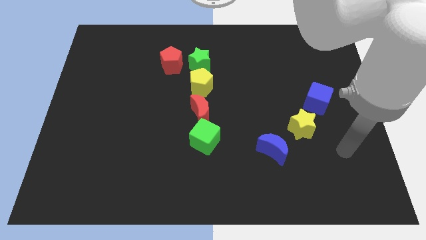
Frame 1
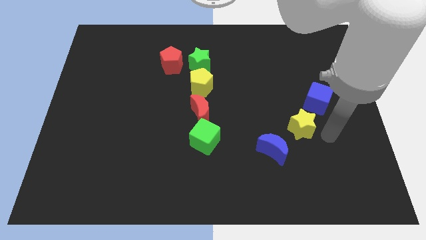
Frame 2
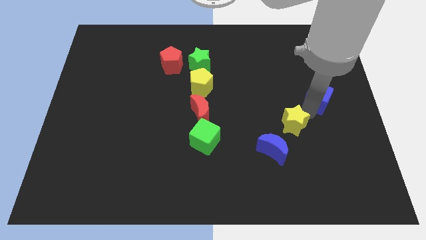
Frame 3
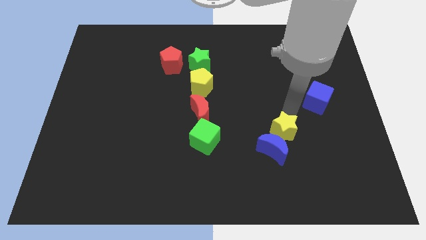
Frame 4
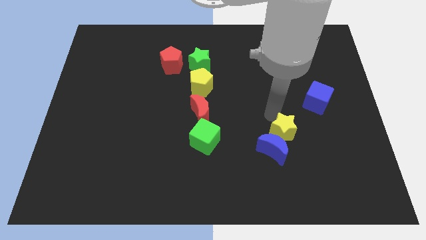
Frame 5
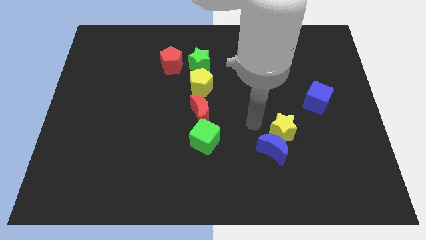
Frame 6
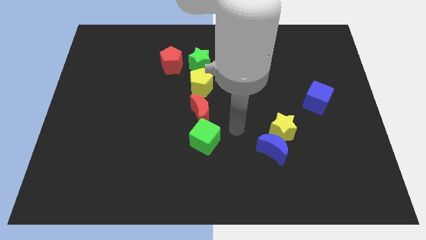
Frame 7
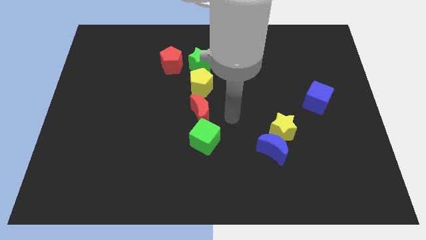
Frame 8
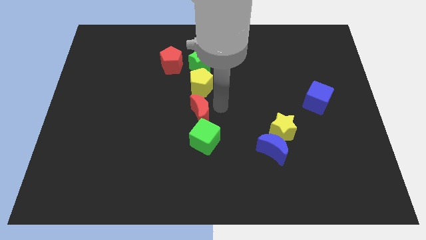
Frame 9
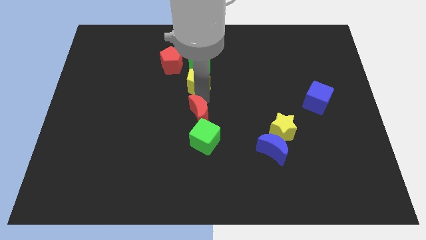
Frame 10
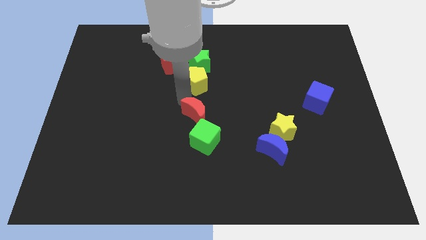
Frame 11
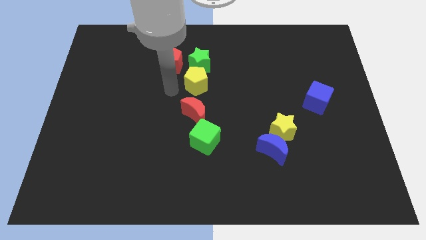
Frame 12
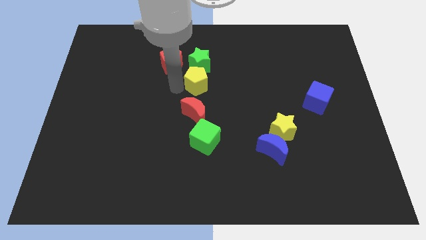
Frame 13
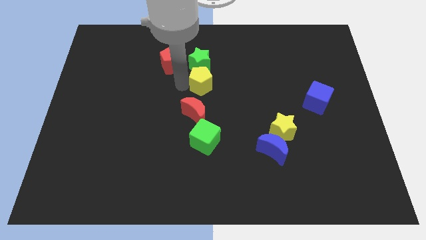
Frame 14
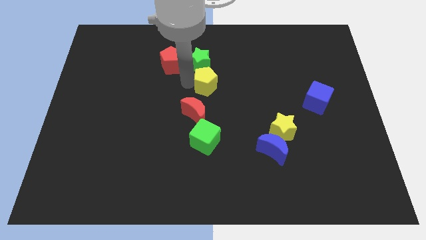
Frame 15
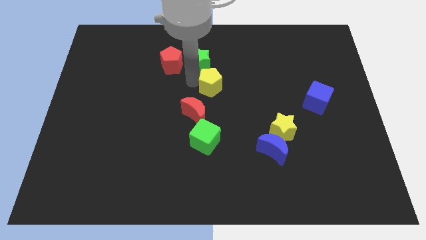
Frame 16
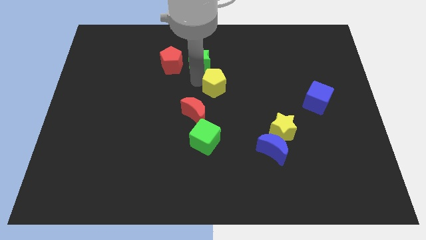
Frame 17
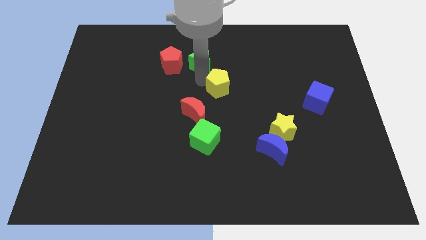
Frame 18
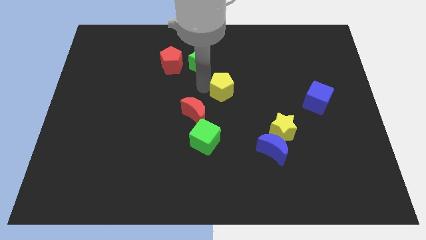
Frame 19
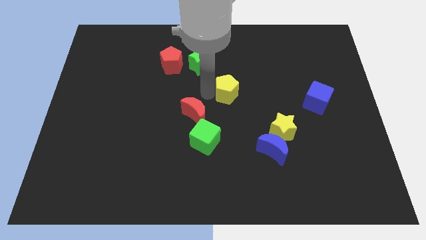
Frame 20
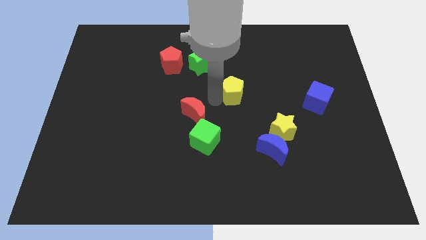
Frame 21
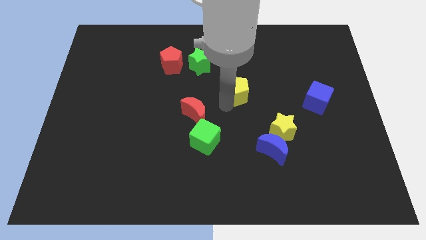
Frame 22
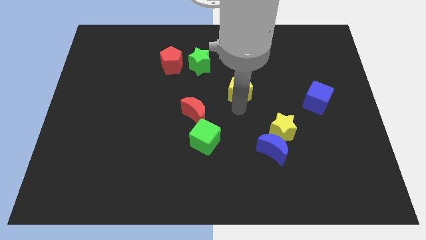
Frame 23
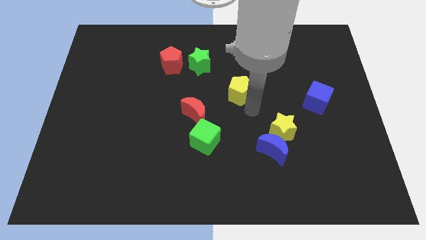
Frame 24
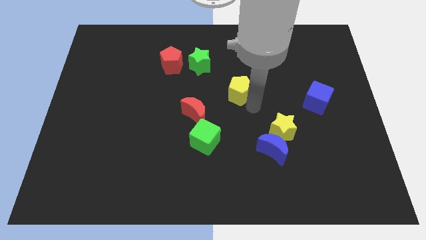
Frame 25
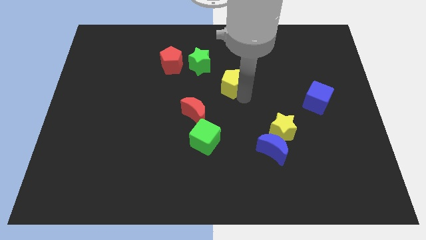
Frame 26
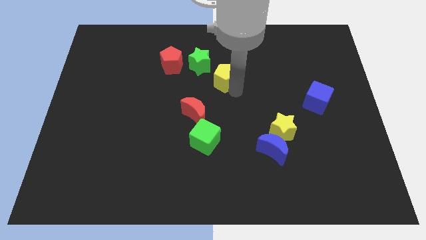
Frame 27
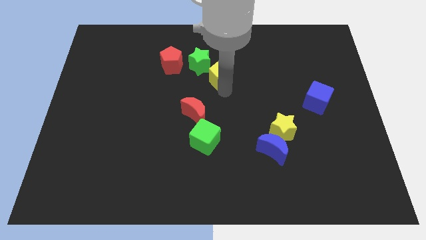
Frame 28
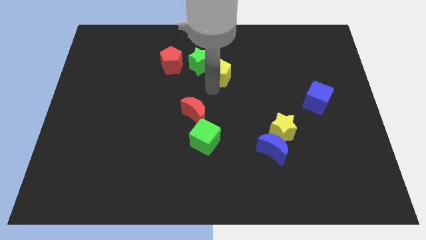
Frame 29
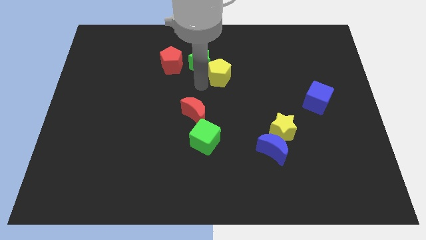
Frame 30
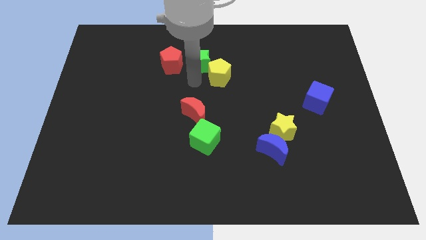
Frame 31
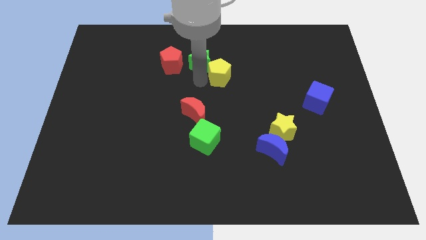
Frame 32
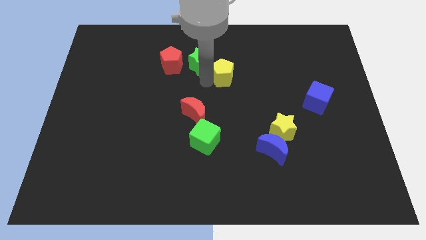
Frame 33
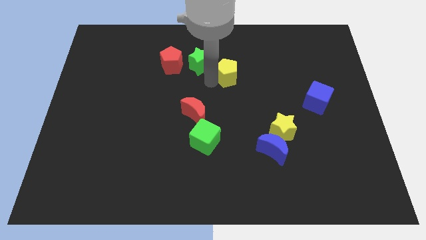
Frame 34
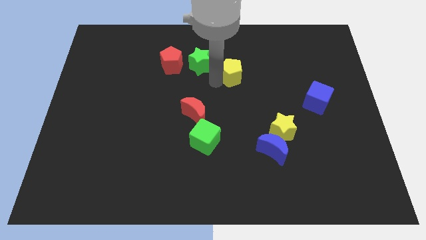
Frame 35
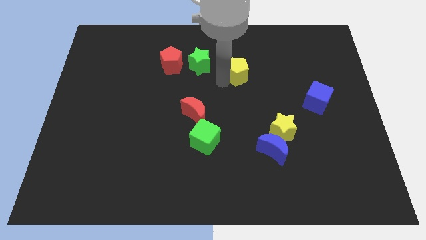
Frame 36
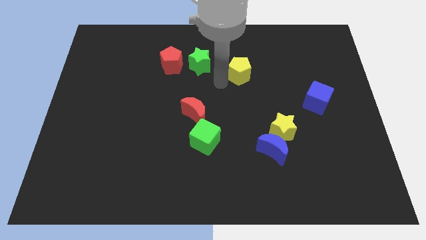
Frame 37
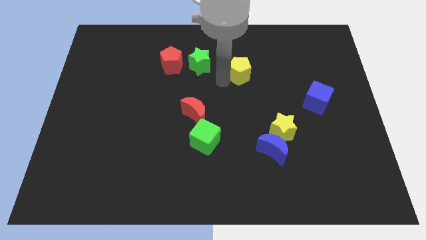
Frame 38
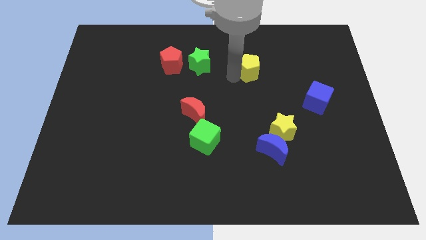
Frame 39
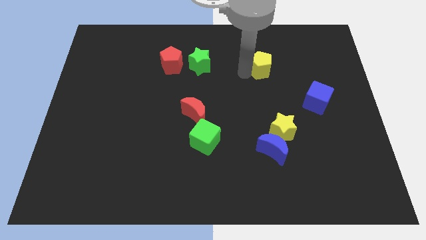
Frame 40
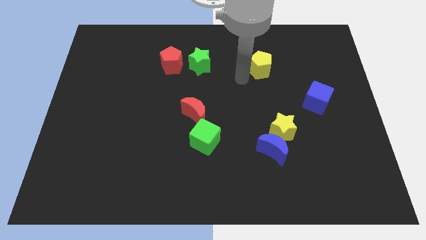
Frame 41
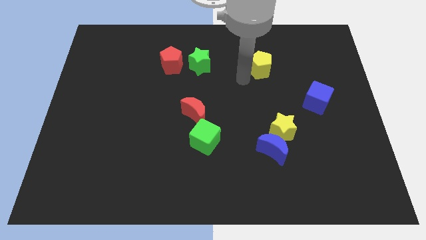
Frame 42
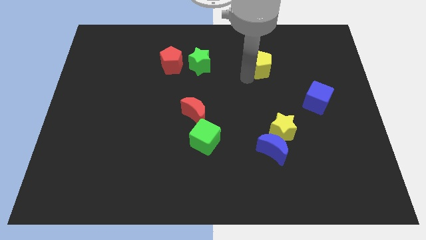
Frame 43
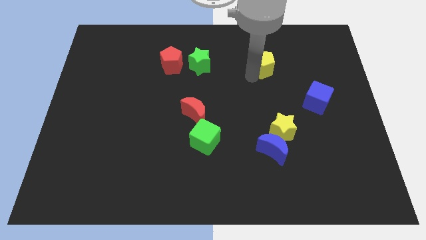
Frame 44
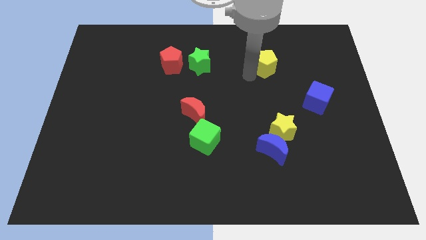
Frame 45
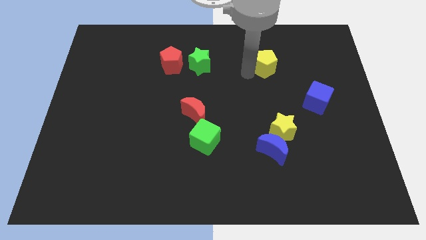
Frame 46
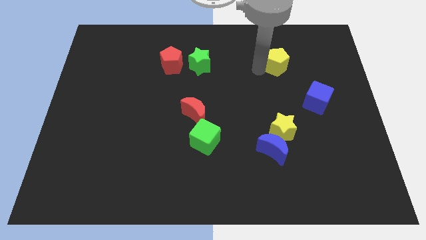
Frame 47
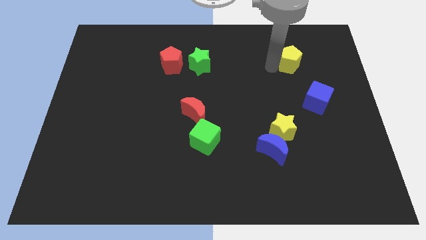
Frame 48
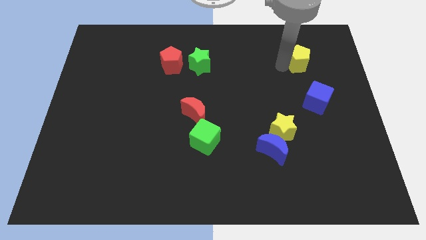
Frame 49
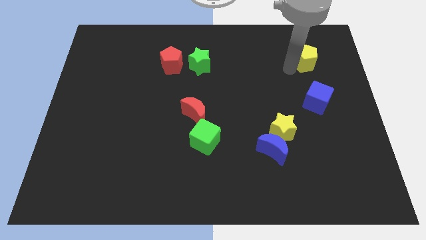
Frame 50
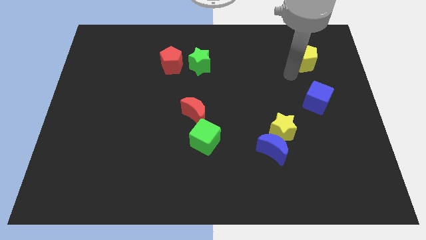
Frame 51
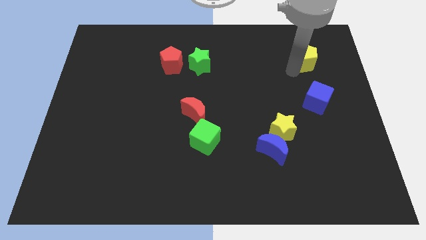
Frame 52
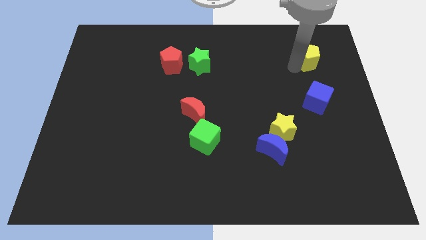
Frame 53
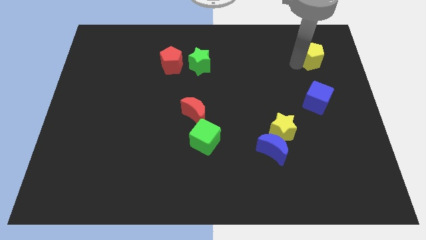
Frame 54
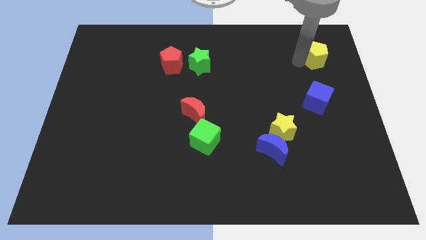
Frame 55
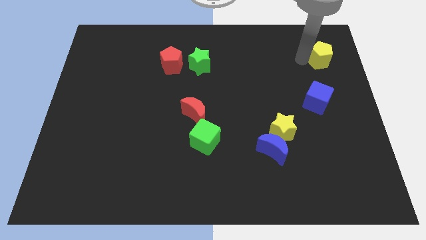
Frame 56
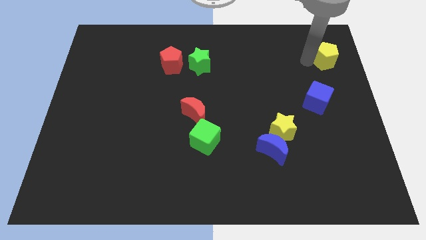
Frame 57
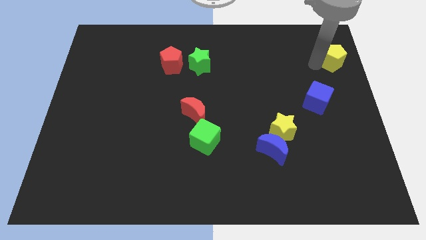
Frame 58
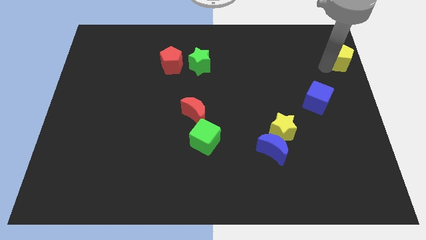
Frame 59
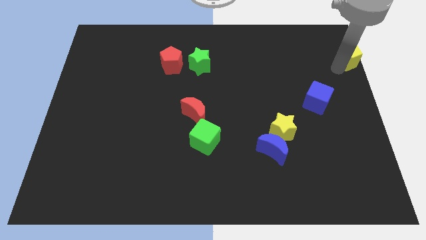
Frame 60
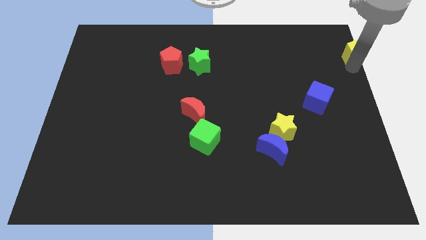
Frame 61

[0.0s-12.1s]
push the yellow pentagon to the top right corner

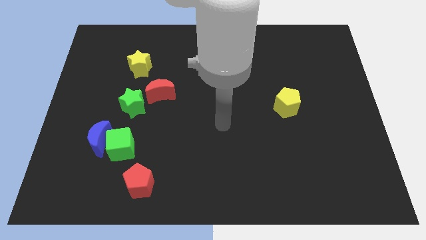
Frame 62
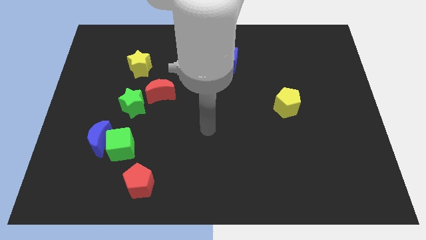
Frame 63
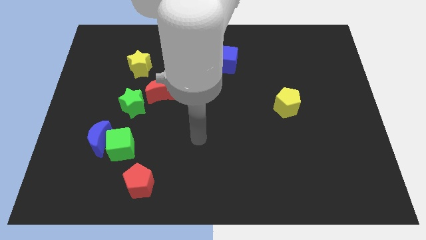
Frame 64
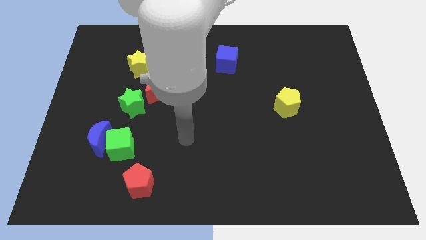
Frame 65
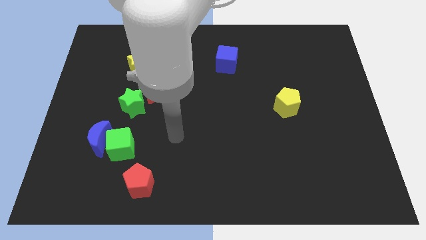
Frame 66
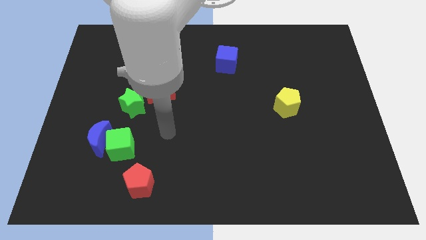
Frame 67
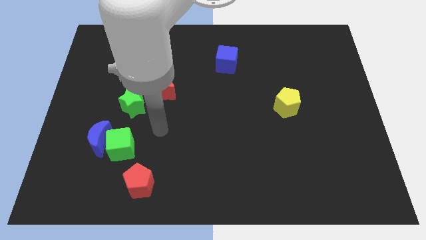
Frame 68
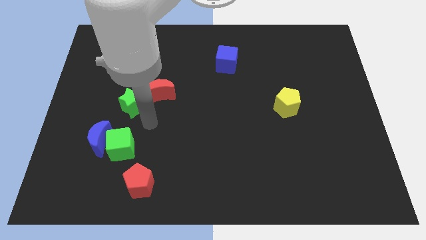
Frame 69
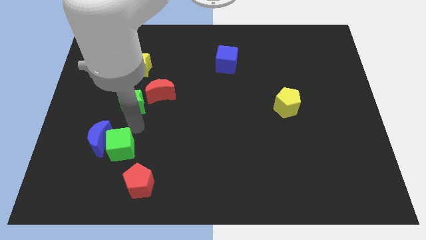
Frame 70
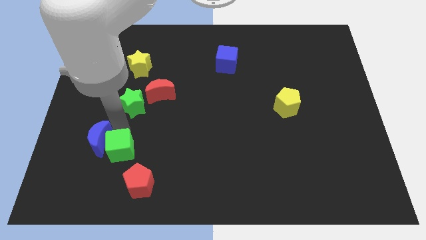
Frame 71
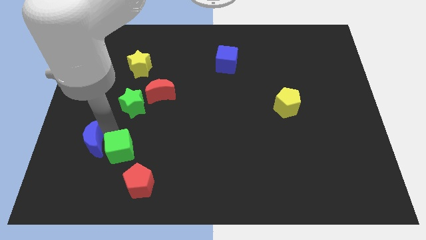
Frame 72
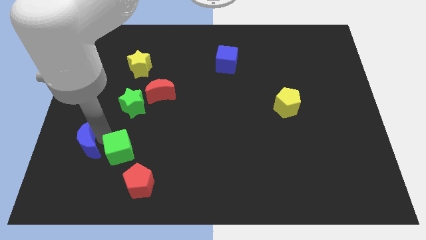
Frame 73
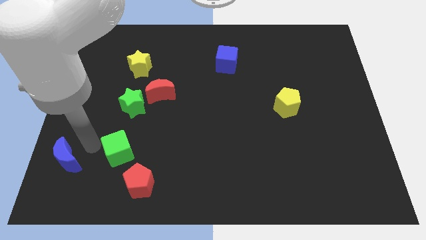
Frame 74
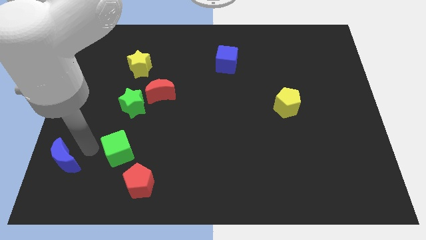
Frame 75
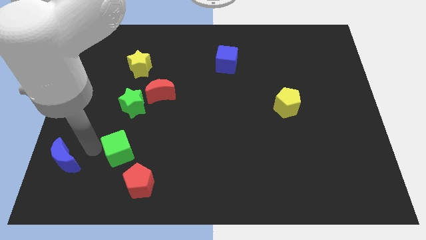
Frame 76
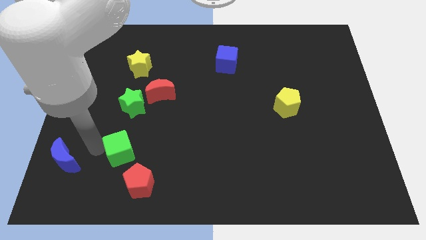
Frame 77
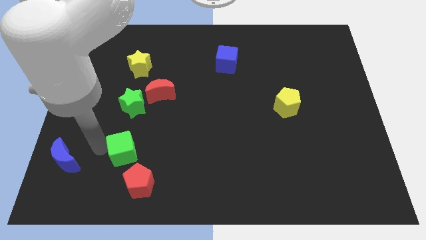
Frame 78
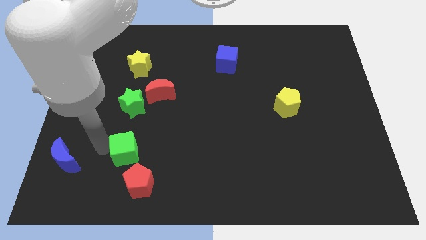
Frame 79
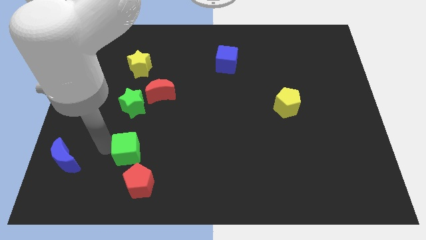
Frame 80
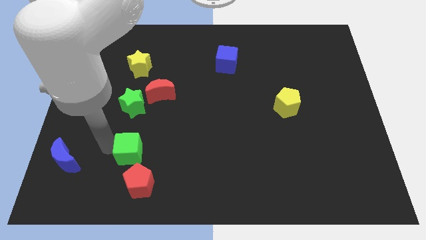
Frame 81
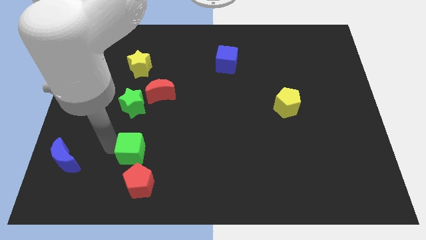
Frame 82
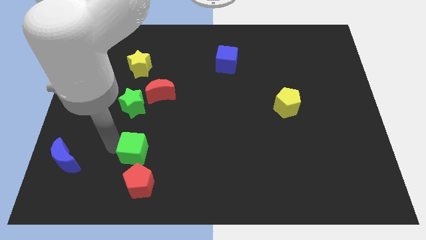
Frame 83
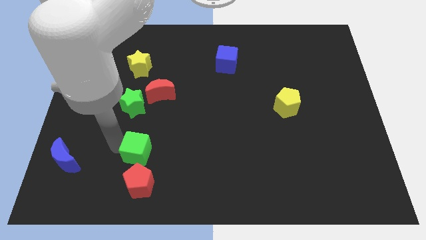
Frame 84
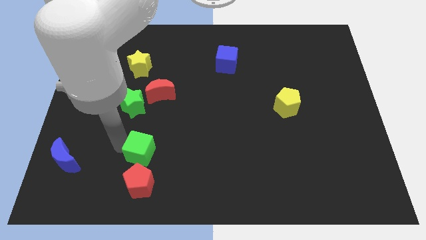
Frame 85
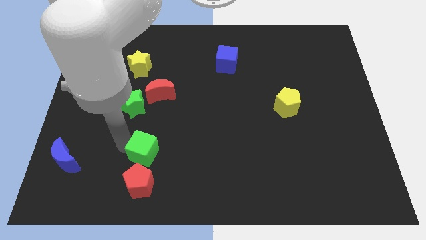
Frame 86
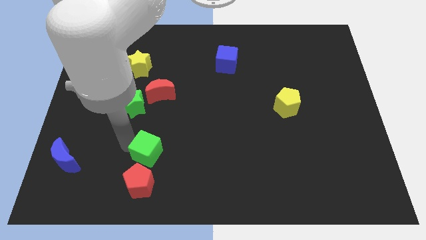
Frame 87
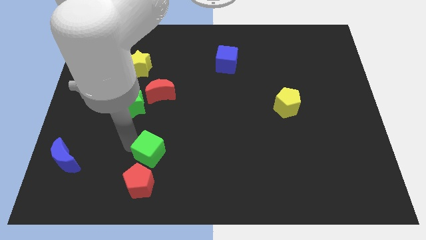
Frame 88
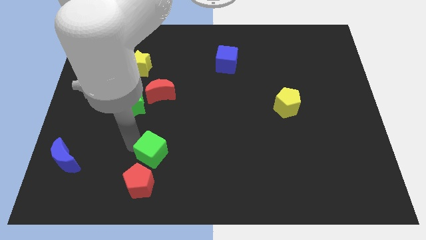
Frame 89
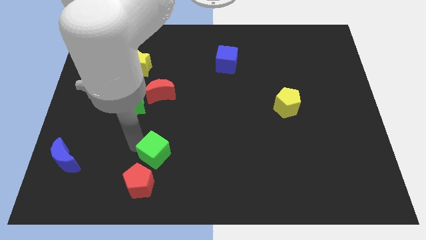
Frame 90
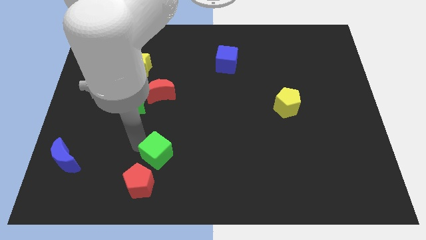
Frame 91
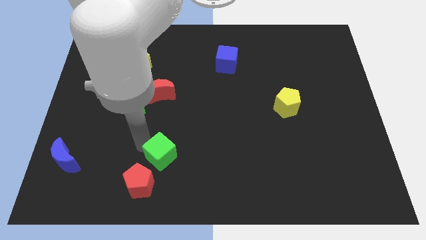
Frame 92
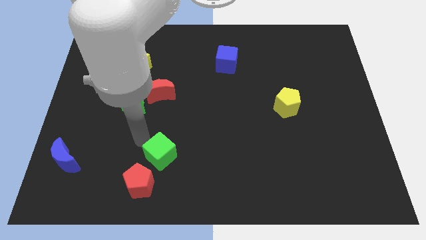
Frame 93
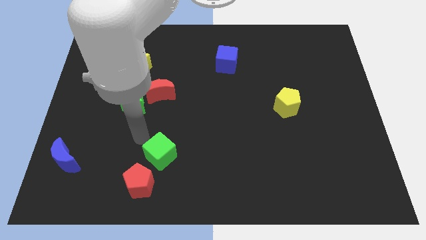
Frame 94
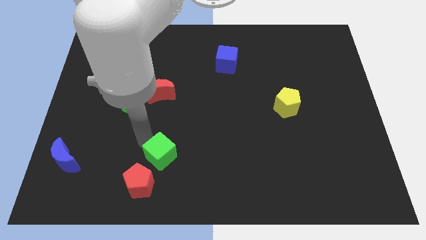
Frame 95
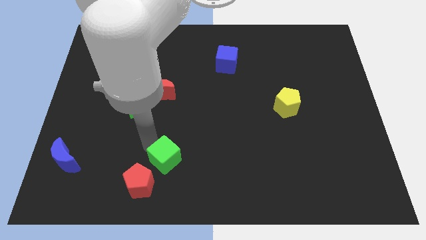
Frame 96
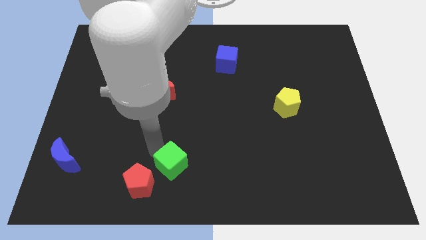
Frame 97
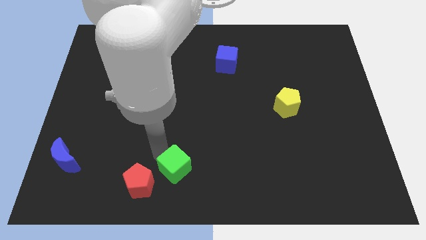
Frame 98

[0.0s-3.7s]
move the green cube to the bottom
